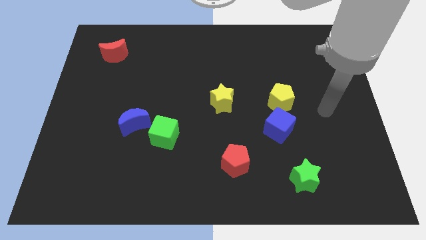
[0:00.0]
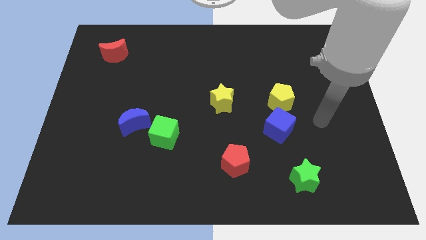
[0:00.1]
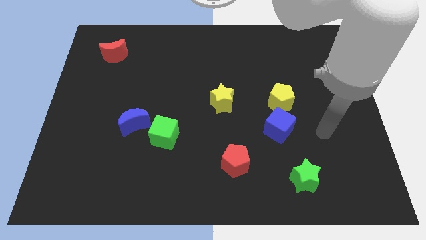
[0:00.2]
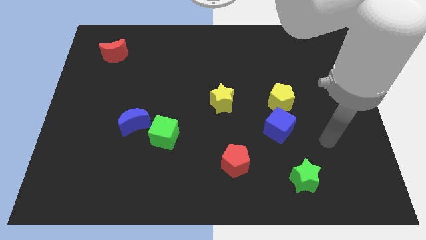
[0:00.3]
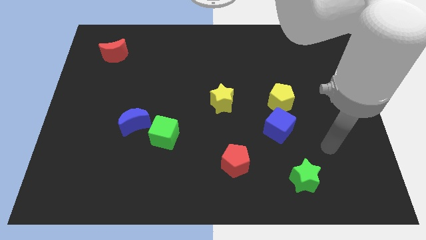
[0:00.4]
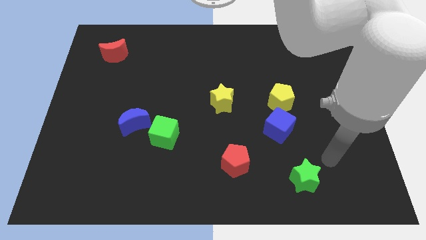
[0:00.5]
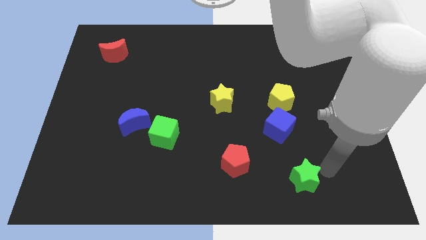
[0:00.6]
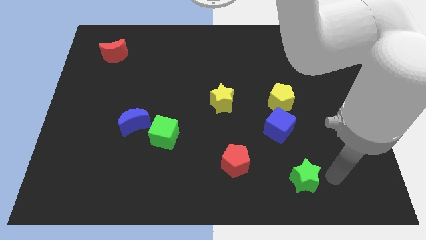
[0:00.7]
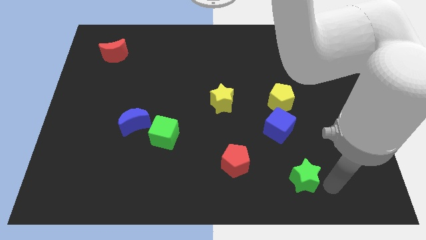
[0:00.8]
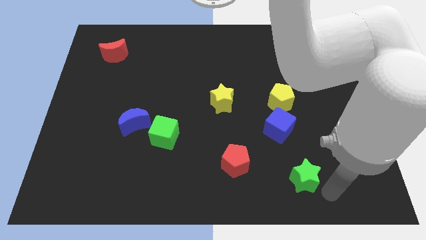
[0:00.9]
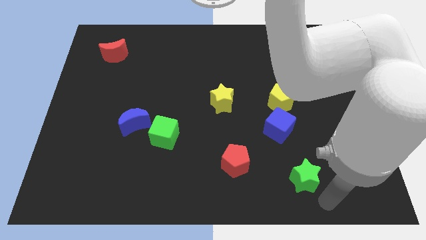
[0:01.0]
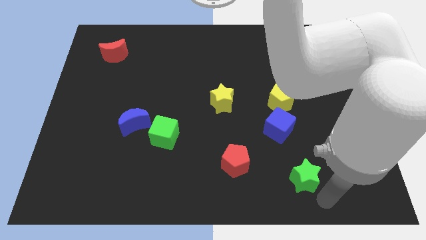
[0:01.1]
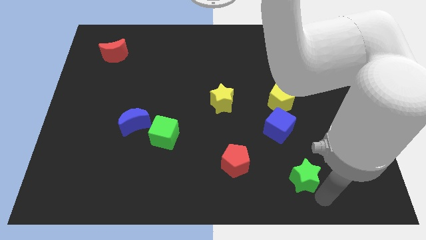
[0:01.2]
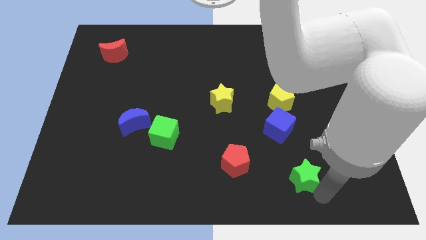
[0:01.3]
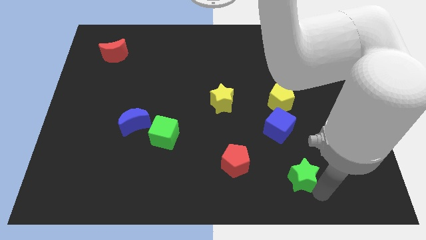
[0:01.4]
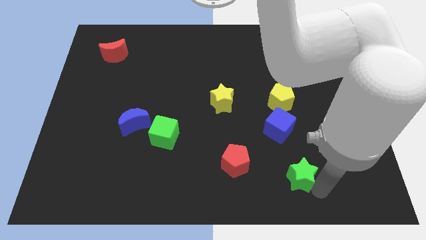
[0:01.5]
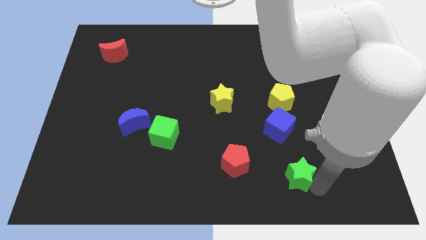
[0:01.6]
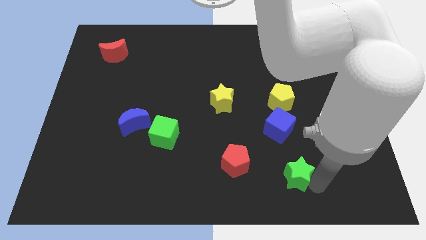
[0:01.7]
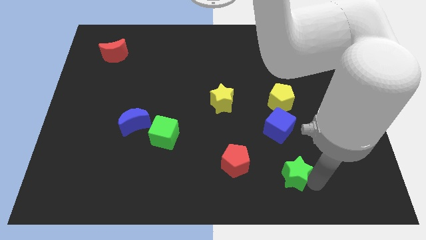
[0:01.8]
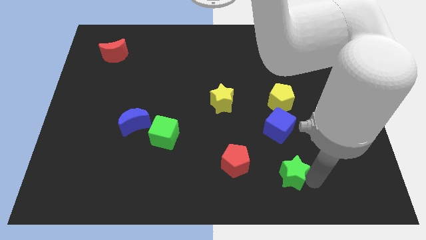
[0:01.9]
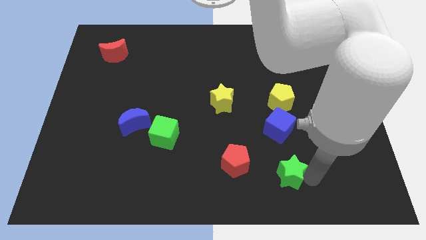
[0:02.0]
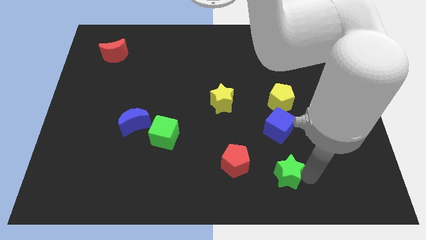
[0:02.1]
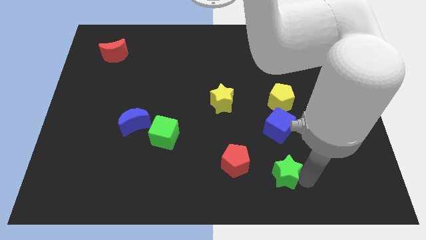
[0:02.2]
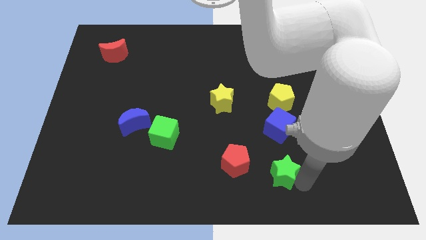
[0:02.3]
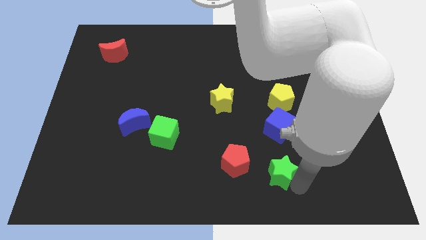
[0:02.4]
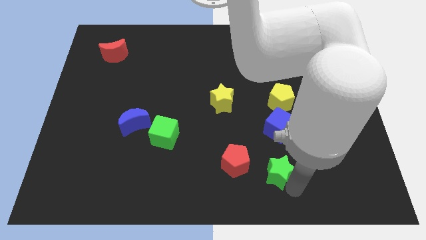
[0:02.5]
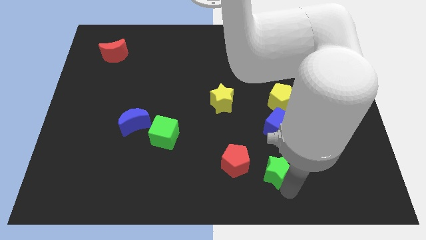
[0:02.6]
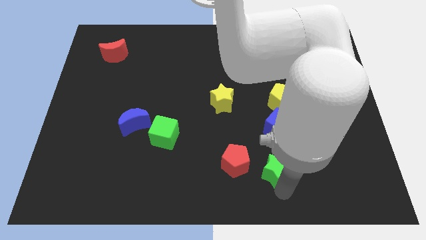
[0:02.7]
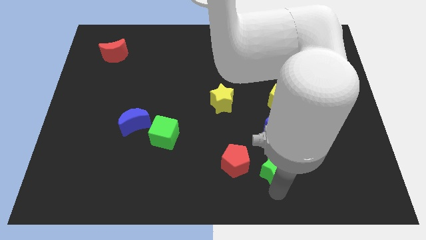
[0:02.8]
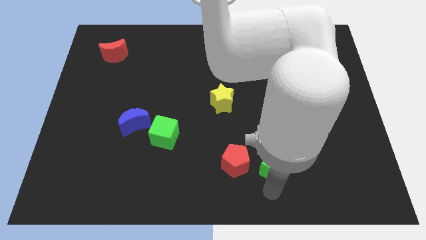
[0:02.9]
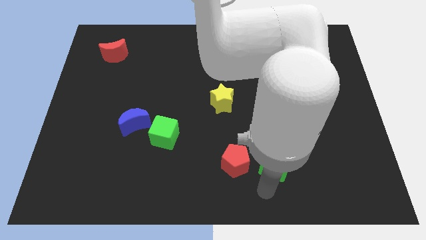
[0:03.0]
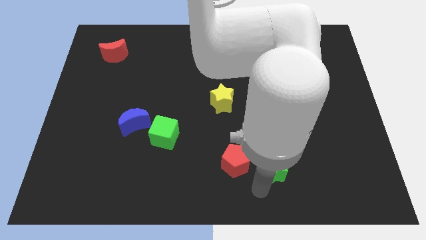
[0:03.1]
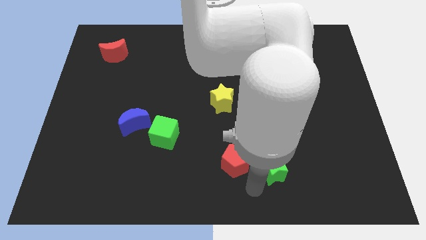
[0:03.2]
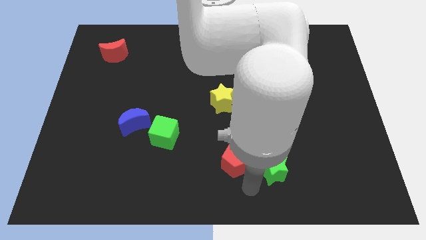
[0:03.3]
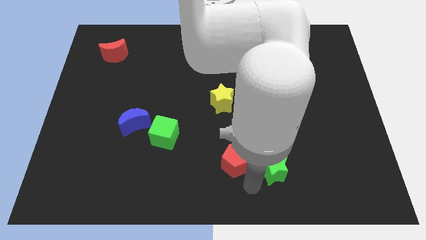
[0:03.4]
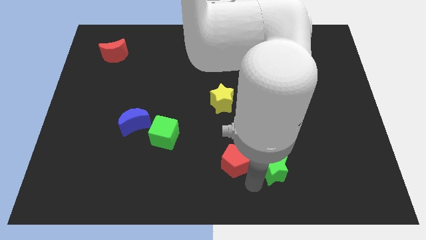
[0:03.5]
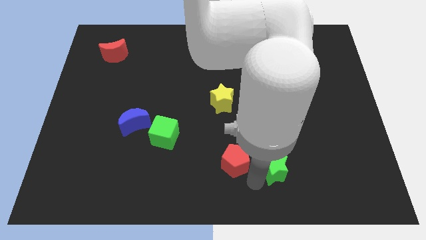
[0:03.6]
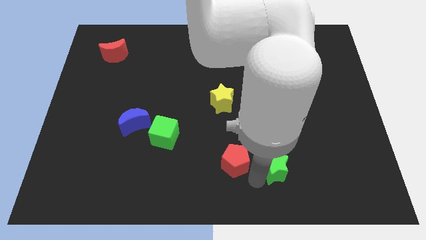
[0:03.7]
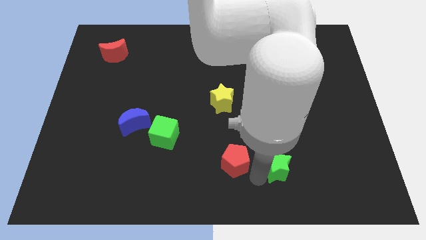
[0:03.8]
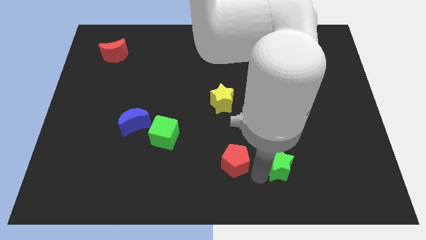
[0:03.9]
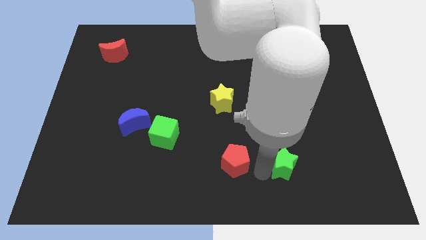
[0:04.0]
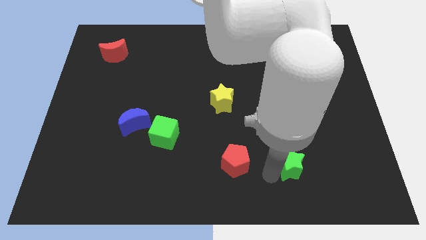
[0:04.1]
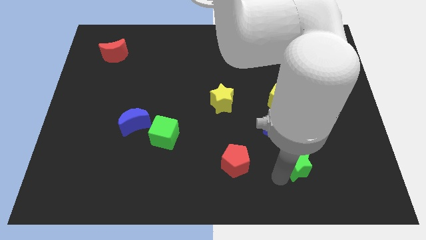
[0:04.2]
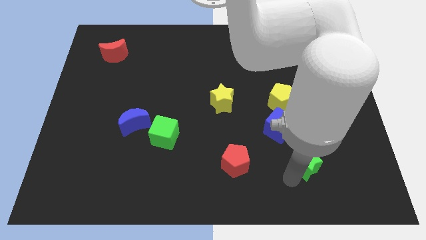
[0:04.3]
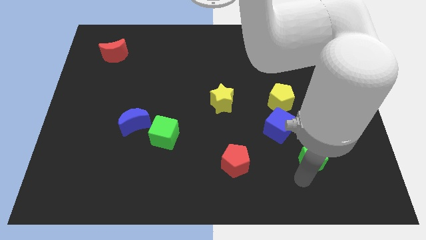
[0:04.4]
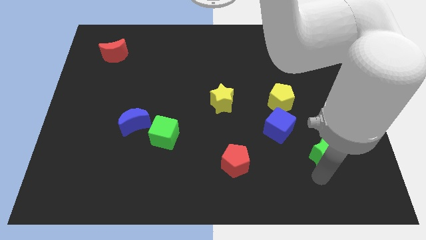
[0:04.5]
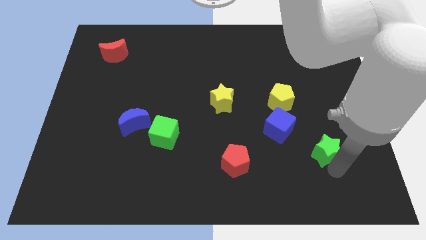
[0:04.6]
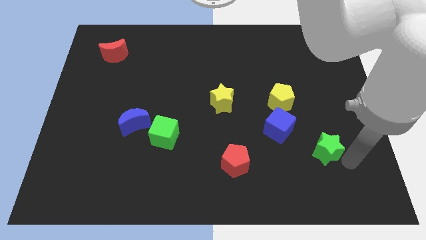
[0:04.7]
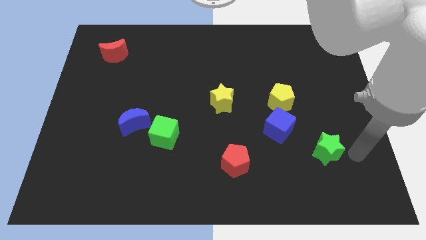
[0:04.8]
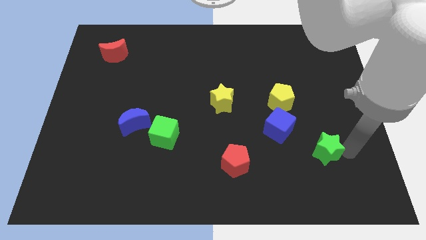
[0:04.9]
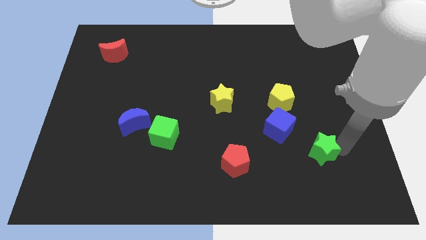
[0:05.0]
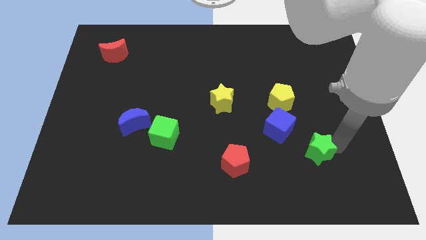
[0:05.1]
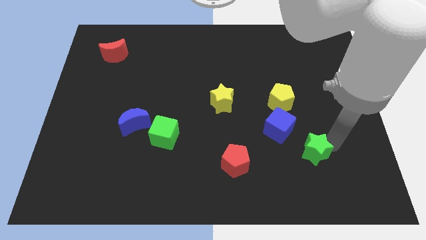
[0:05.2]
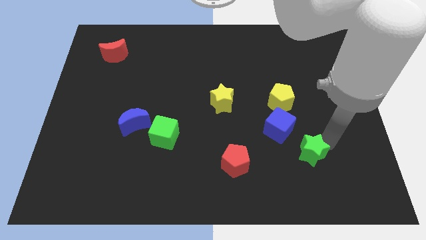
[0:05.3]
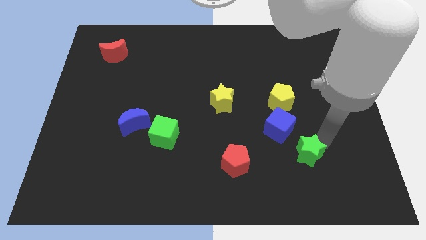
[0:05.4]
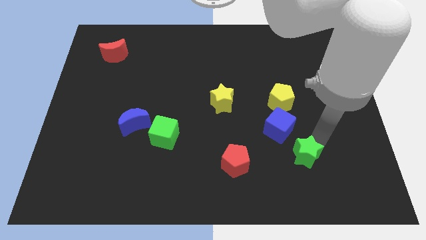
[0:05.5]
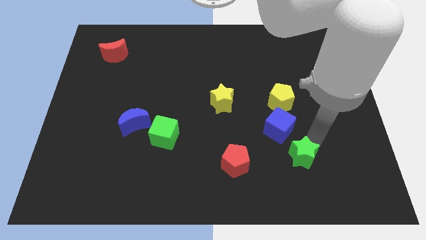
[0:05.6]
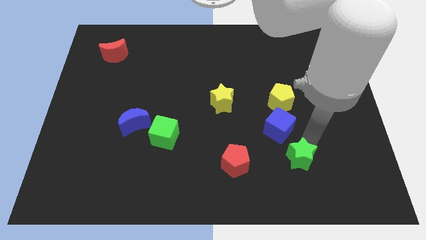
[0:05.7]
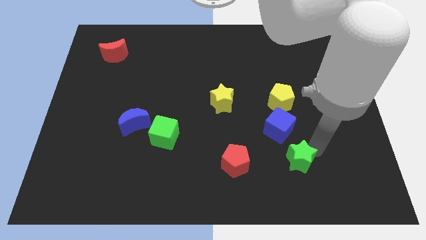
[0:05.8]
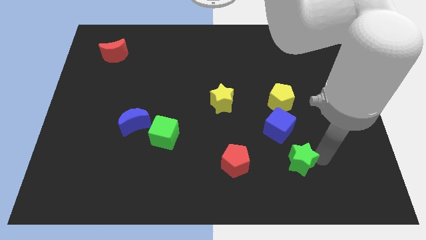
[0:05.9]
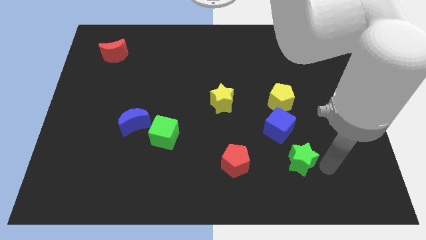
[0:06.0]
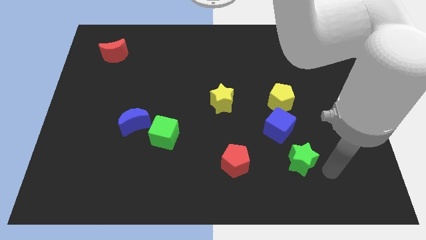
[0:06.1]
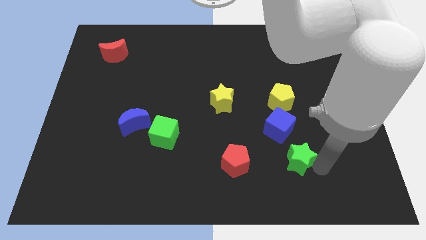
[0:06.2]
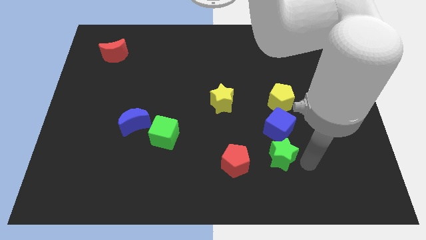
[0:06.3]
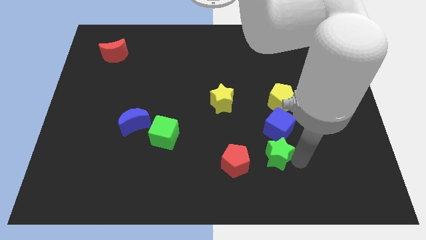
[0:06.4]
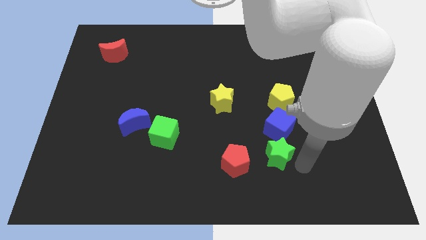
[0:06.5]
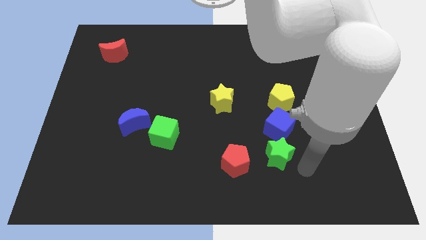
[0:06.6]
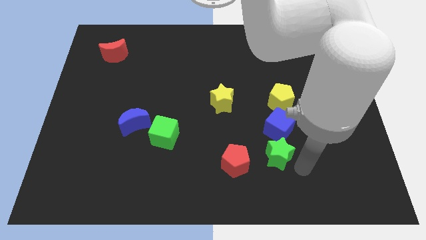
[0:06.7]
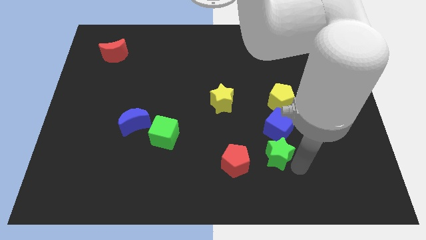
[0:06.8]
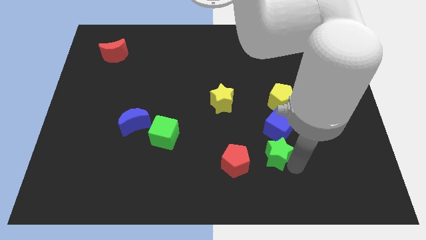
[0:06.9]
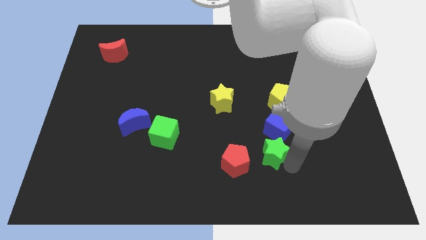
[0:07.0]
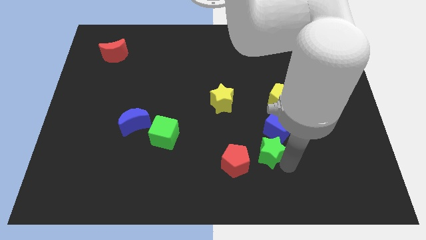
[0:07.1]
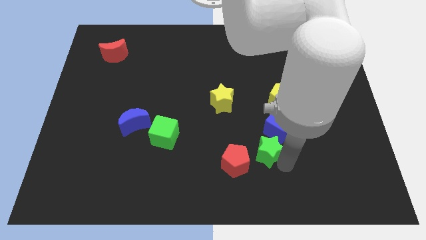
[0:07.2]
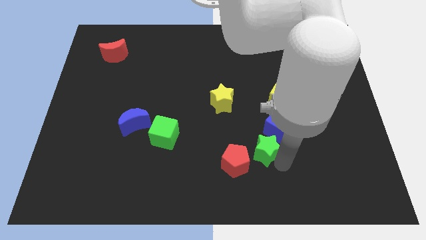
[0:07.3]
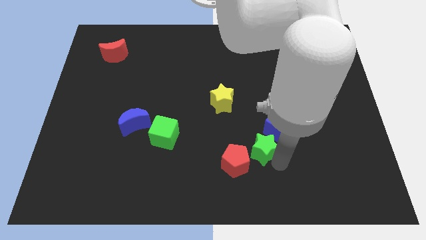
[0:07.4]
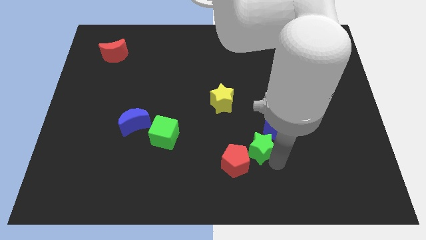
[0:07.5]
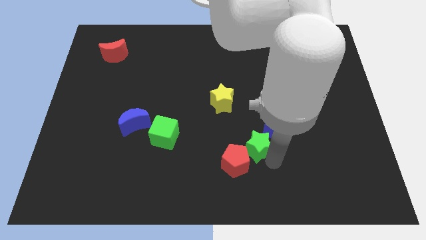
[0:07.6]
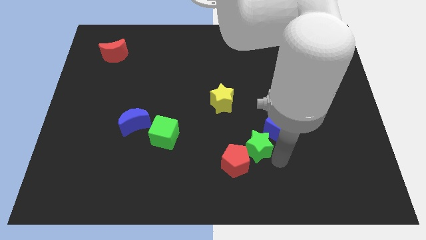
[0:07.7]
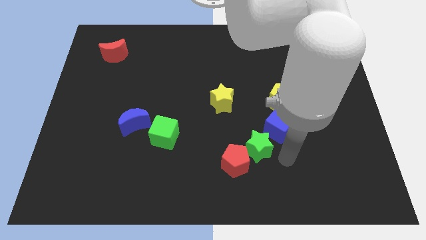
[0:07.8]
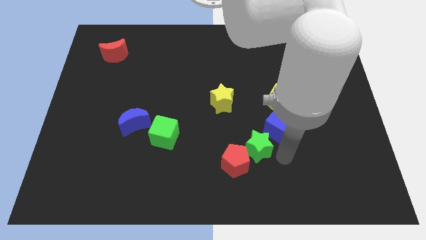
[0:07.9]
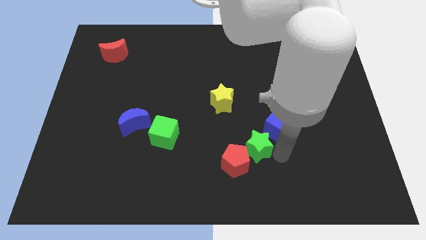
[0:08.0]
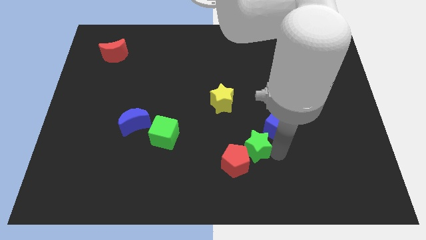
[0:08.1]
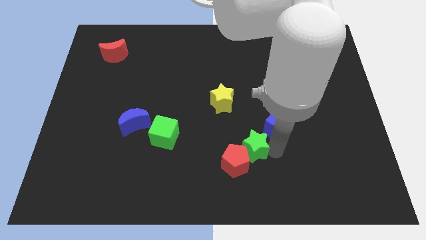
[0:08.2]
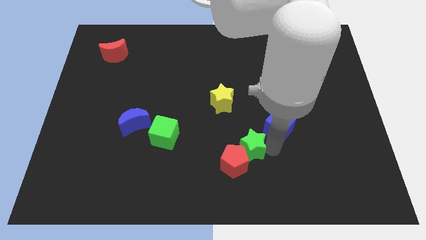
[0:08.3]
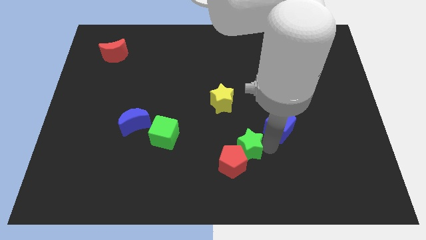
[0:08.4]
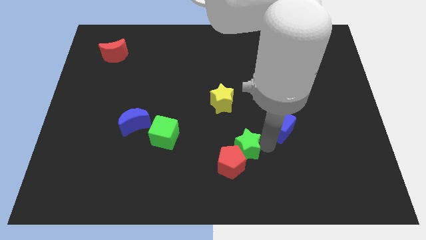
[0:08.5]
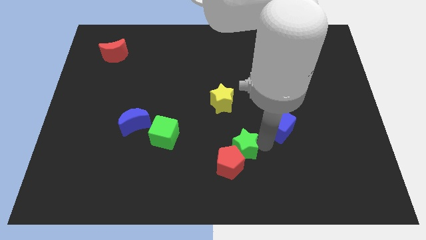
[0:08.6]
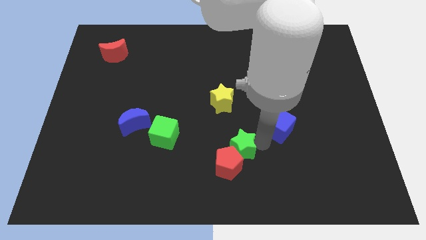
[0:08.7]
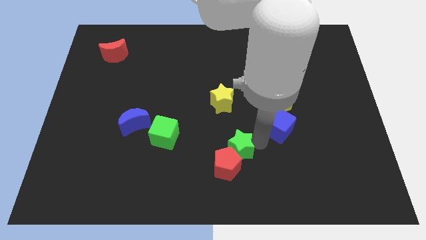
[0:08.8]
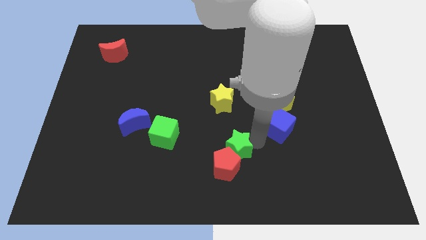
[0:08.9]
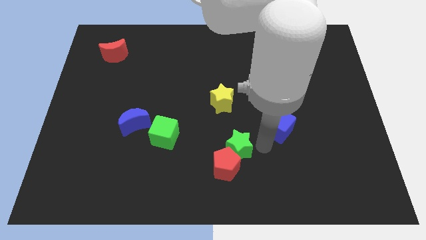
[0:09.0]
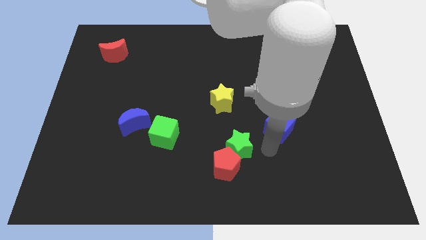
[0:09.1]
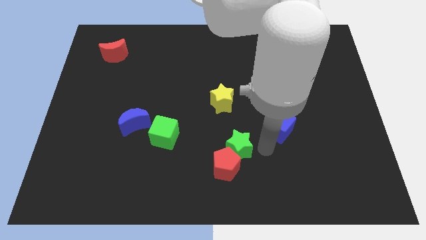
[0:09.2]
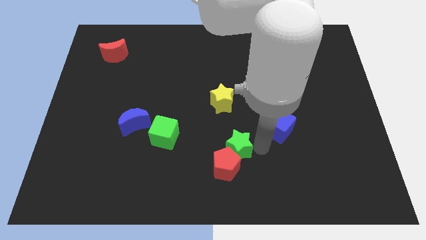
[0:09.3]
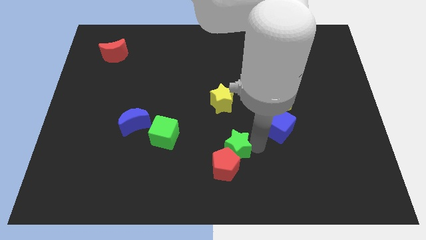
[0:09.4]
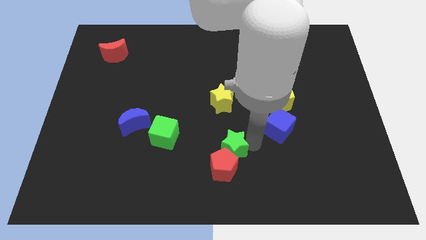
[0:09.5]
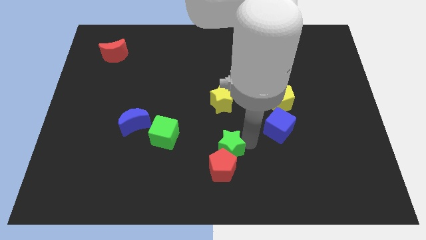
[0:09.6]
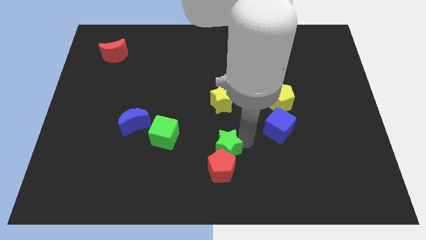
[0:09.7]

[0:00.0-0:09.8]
slide the green star to the top left of the red pentagon
